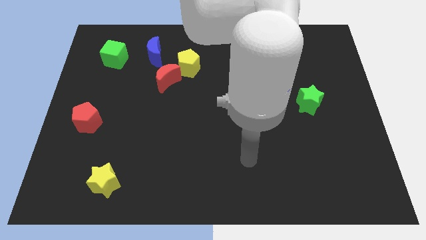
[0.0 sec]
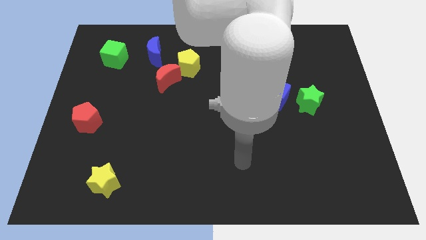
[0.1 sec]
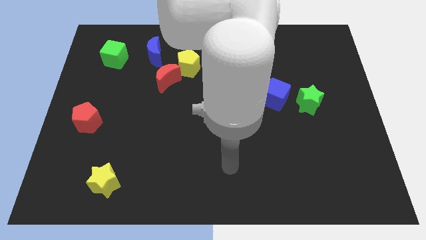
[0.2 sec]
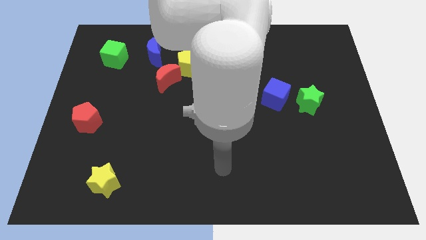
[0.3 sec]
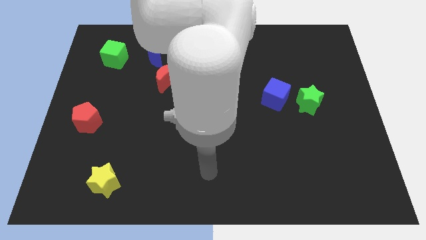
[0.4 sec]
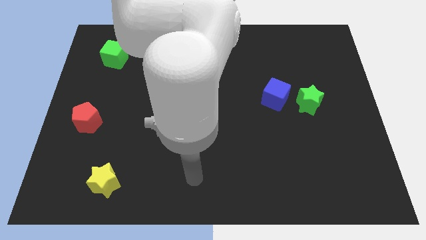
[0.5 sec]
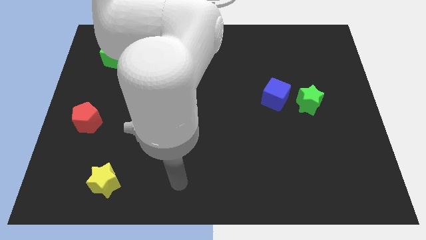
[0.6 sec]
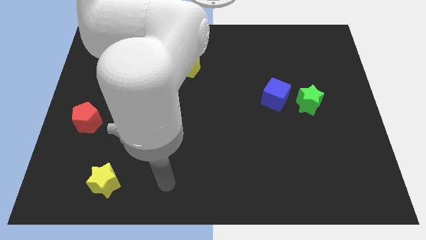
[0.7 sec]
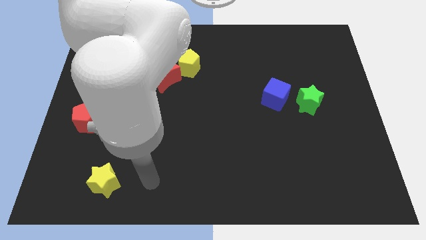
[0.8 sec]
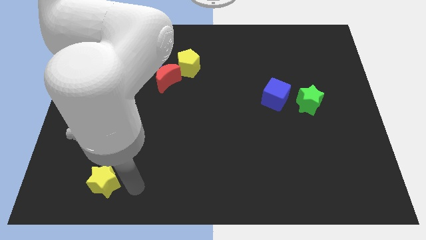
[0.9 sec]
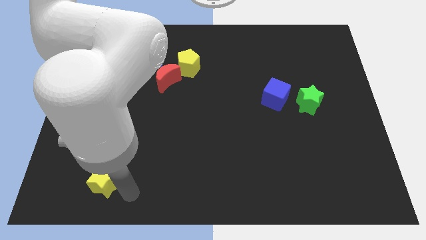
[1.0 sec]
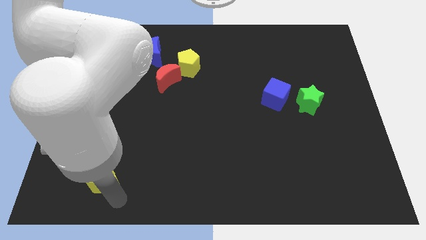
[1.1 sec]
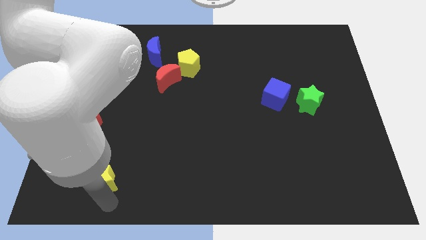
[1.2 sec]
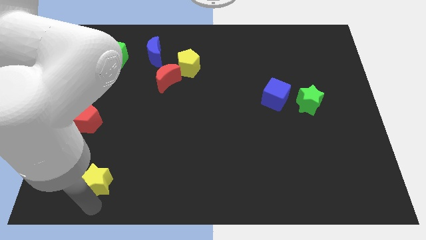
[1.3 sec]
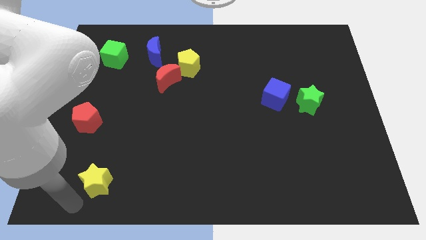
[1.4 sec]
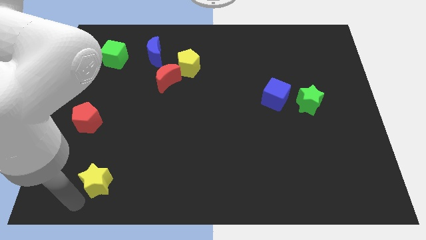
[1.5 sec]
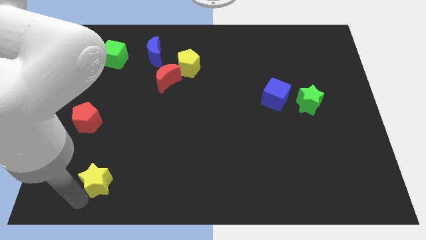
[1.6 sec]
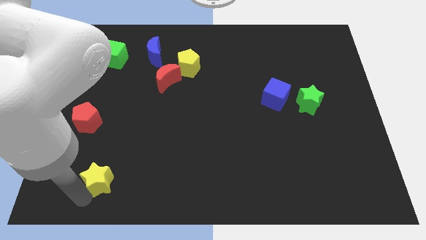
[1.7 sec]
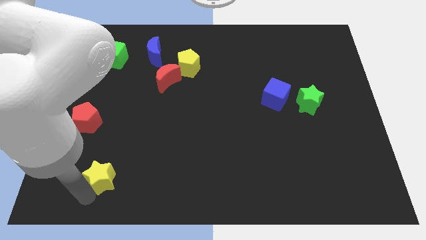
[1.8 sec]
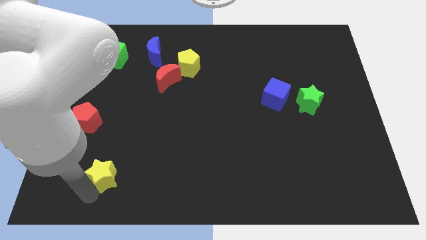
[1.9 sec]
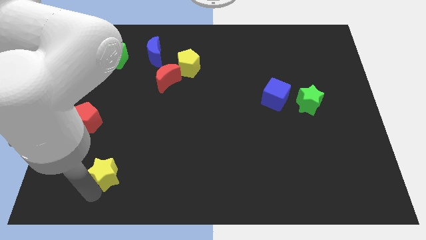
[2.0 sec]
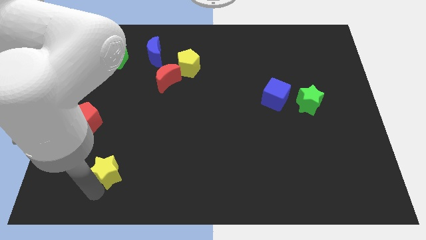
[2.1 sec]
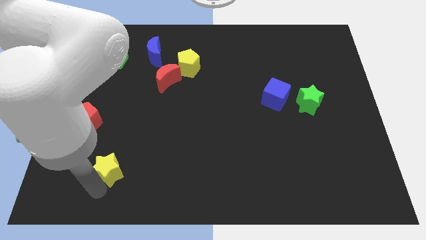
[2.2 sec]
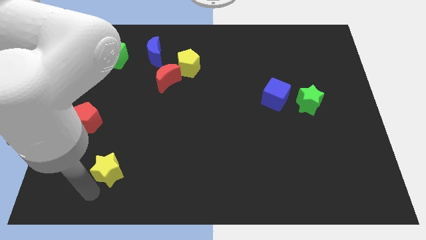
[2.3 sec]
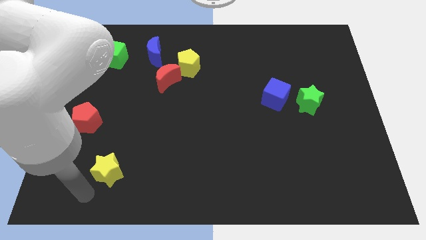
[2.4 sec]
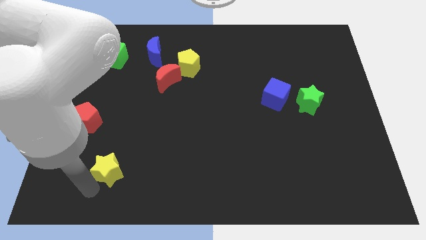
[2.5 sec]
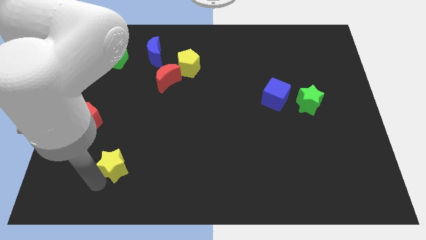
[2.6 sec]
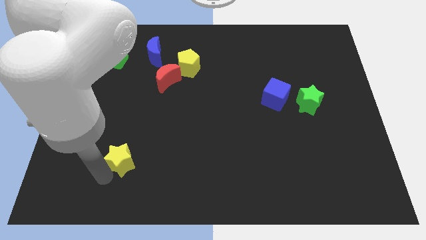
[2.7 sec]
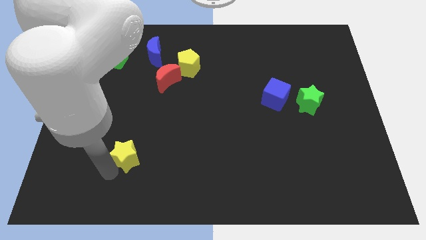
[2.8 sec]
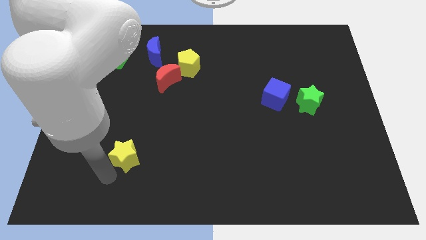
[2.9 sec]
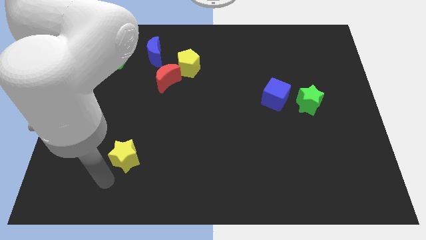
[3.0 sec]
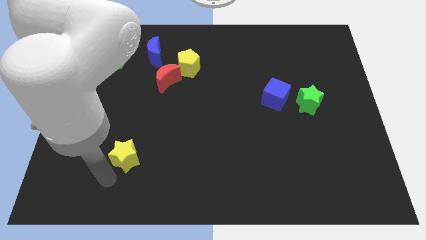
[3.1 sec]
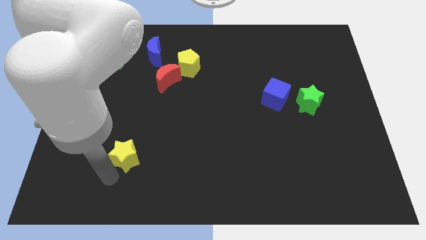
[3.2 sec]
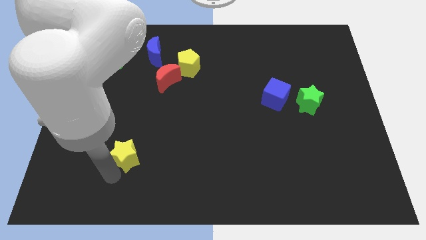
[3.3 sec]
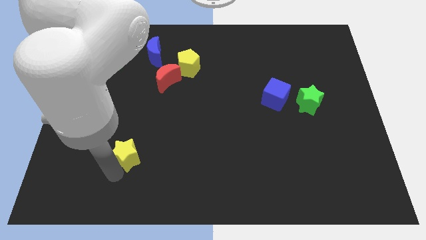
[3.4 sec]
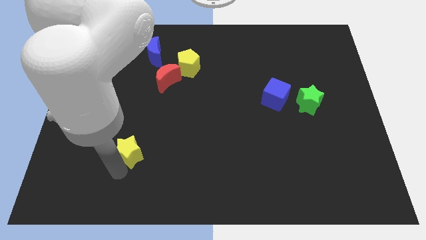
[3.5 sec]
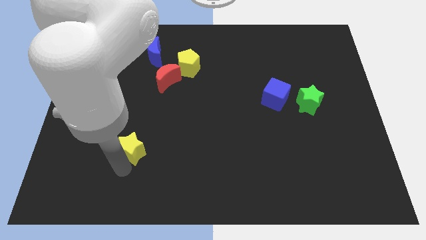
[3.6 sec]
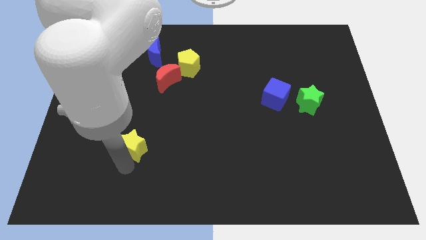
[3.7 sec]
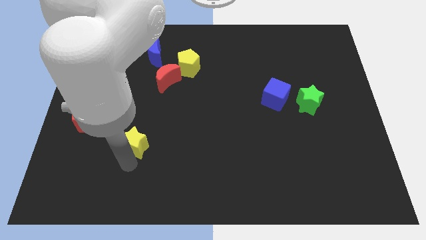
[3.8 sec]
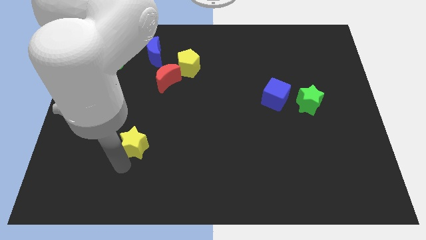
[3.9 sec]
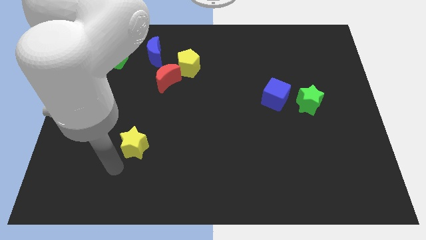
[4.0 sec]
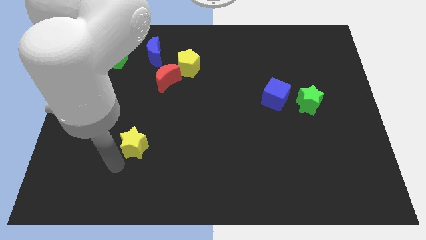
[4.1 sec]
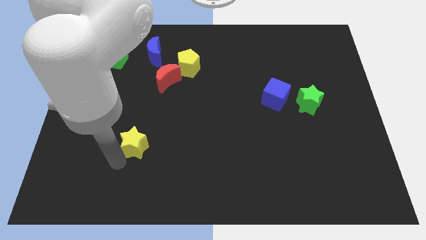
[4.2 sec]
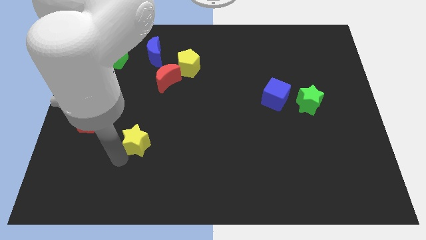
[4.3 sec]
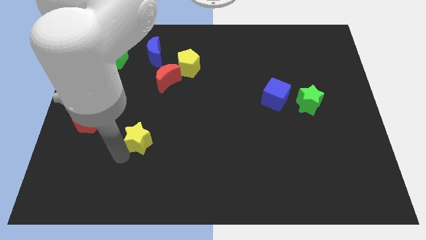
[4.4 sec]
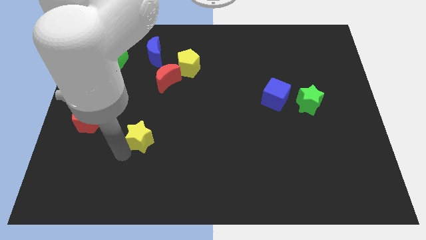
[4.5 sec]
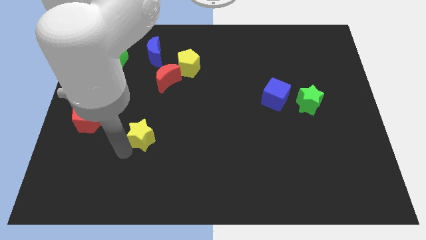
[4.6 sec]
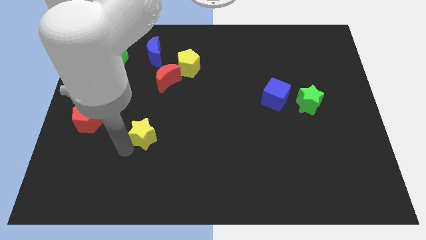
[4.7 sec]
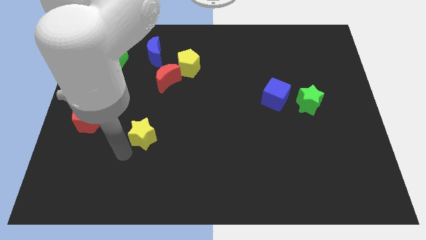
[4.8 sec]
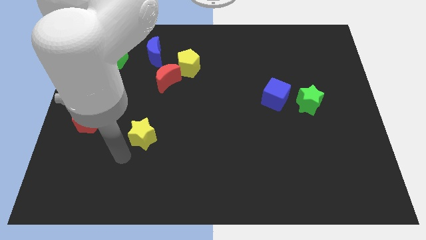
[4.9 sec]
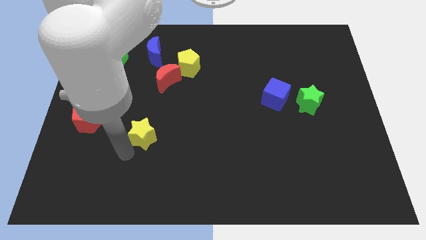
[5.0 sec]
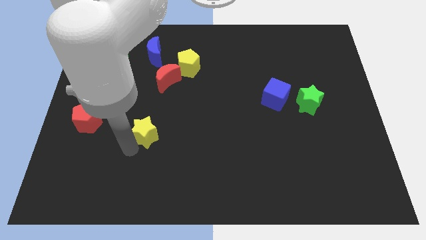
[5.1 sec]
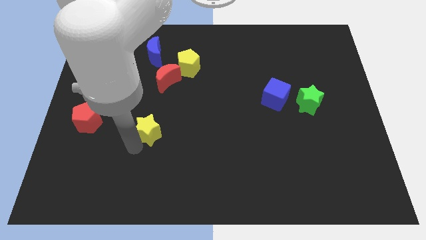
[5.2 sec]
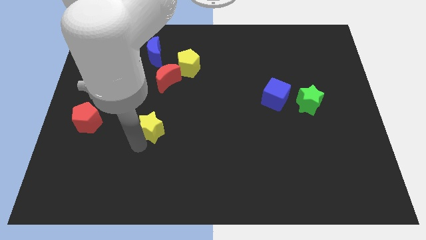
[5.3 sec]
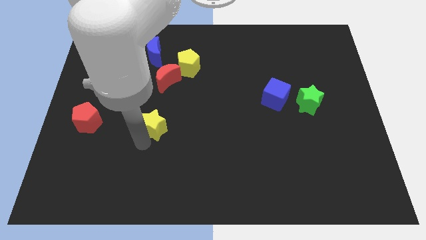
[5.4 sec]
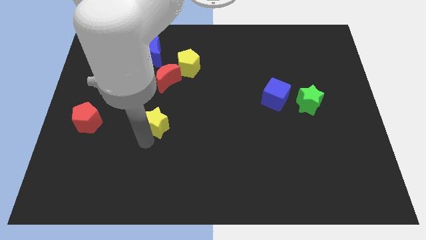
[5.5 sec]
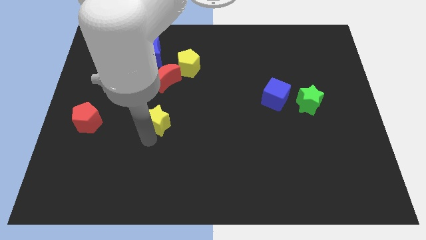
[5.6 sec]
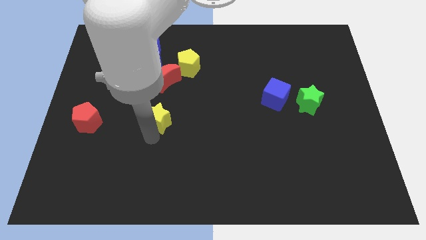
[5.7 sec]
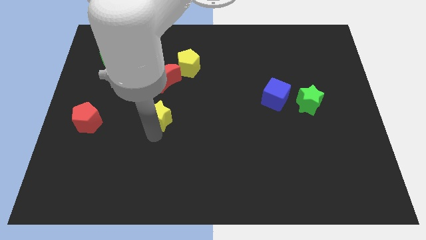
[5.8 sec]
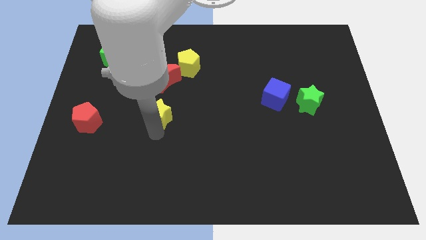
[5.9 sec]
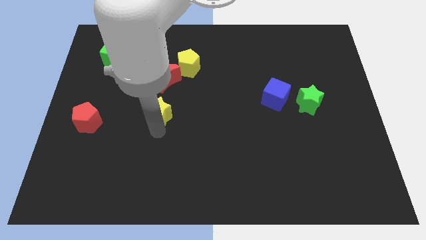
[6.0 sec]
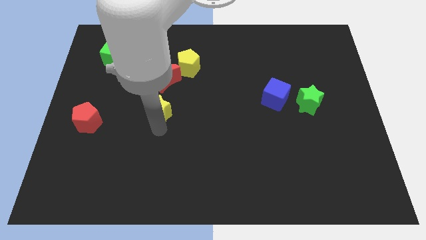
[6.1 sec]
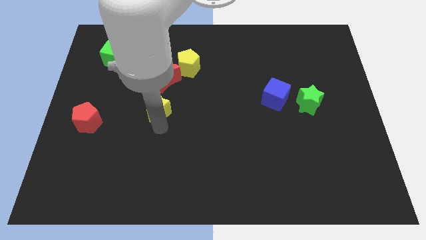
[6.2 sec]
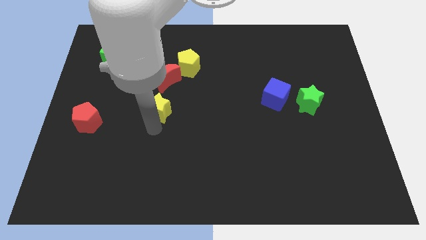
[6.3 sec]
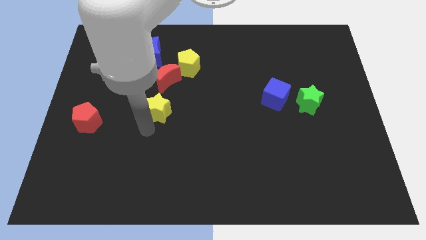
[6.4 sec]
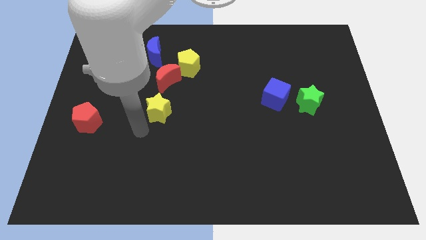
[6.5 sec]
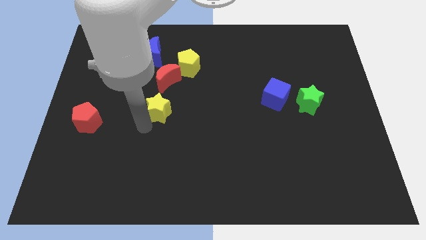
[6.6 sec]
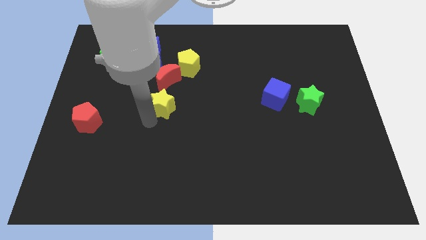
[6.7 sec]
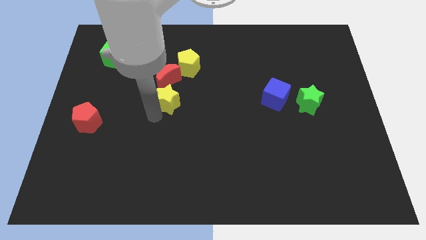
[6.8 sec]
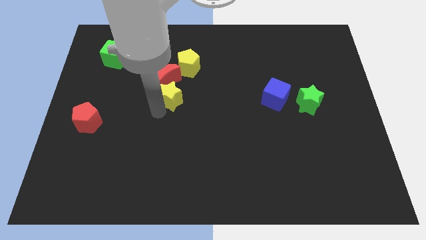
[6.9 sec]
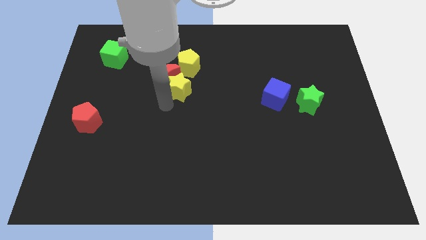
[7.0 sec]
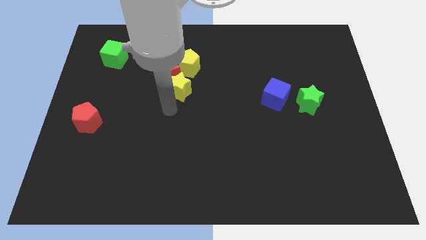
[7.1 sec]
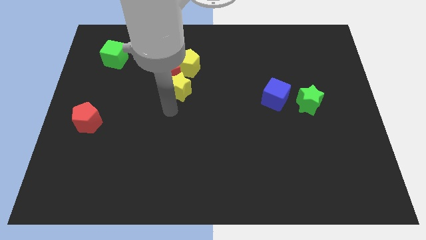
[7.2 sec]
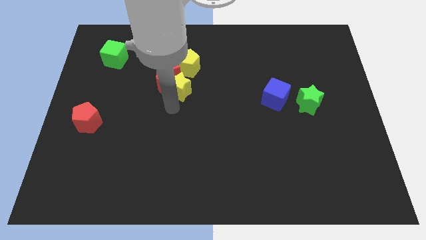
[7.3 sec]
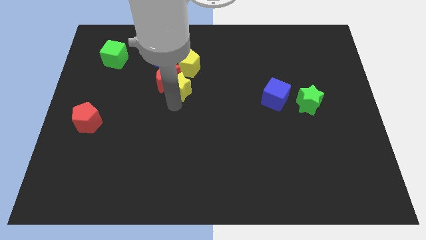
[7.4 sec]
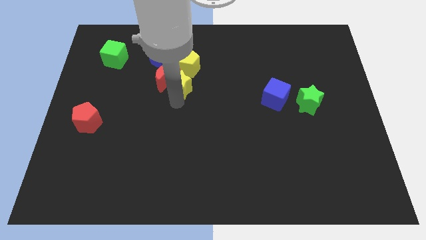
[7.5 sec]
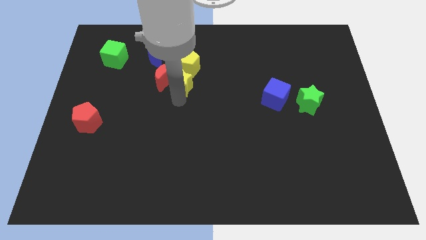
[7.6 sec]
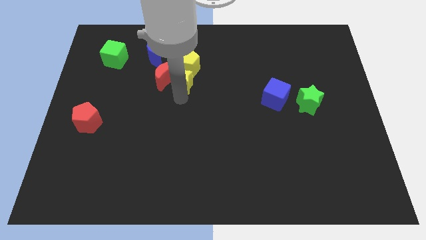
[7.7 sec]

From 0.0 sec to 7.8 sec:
move the yellow star next to the yellow pentagon
